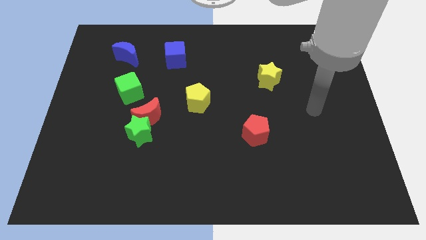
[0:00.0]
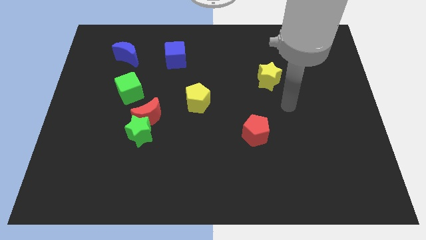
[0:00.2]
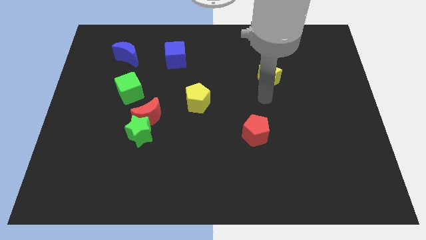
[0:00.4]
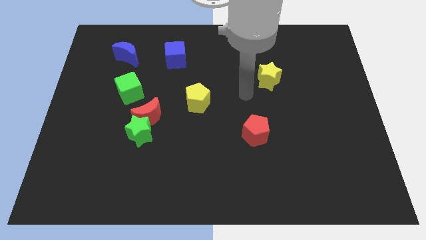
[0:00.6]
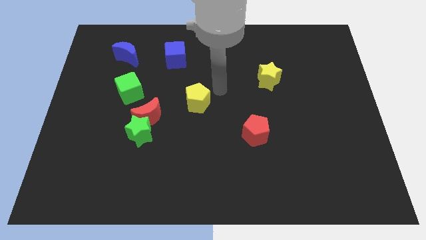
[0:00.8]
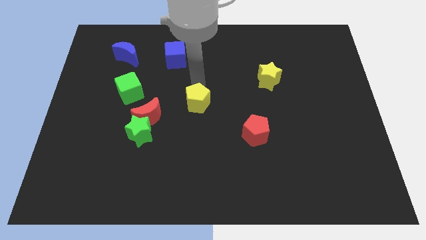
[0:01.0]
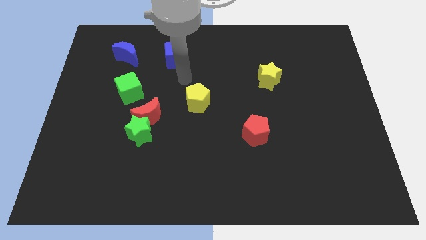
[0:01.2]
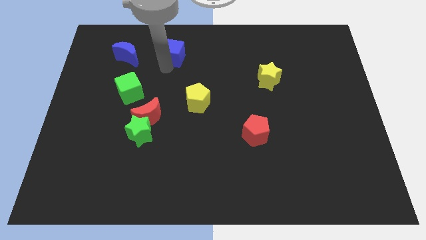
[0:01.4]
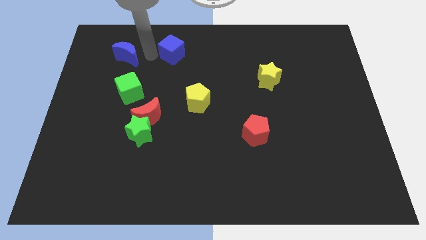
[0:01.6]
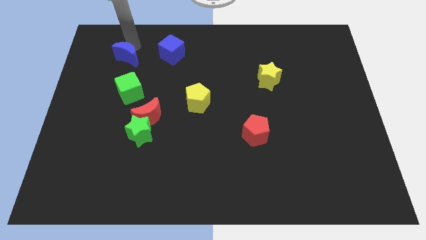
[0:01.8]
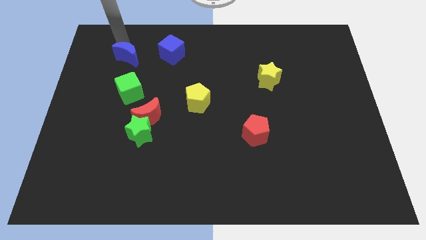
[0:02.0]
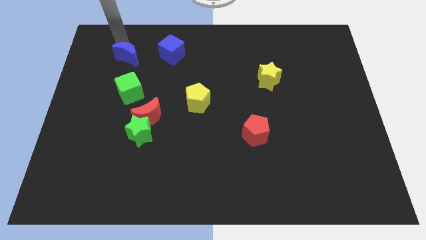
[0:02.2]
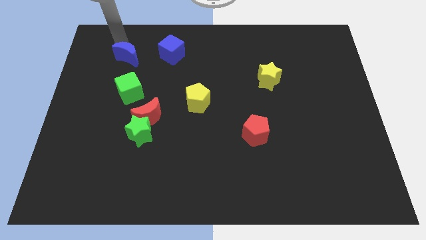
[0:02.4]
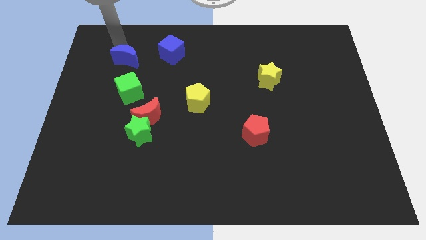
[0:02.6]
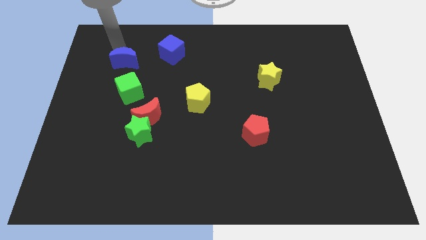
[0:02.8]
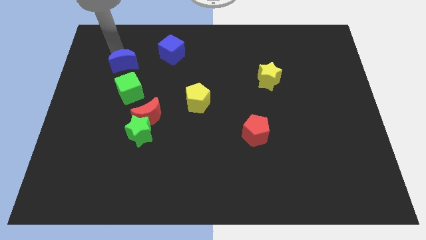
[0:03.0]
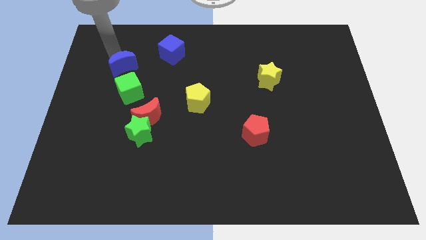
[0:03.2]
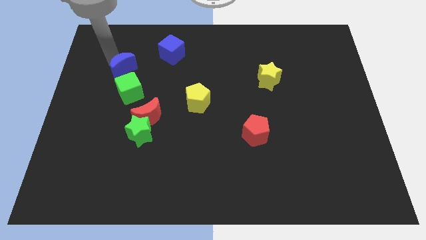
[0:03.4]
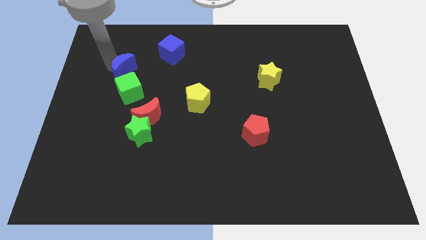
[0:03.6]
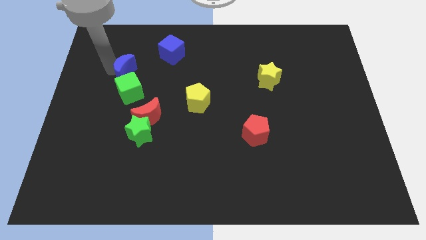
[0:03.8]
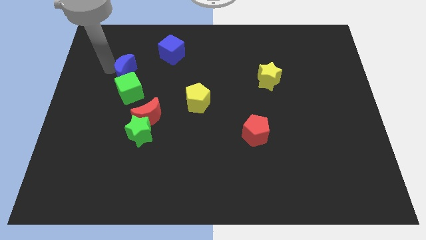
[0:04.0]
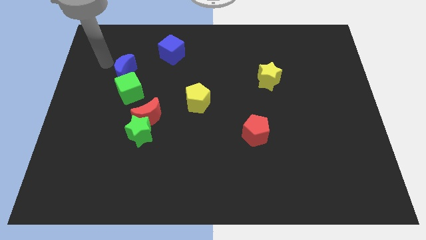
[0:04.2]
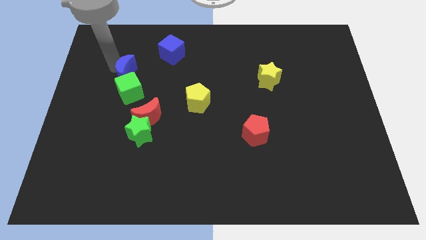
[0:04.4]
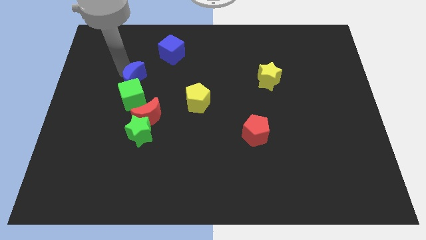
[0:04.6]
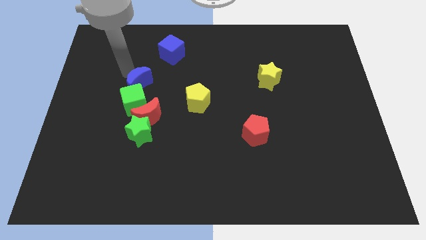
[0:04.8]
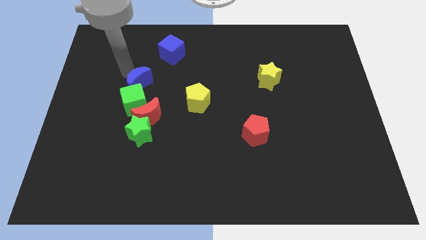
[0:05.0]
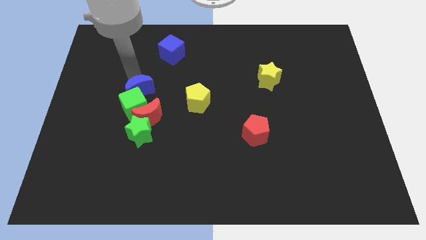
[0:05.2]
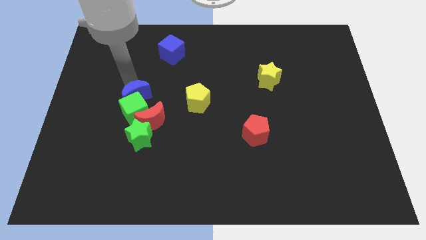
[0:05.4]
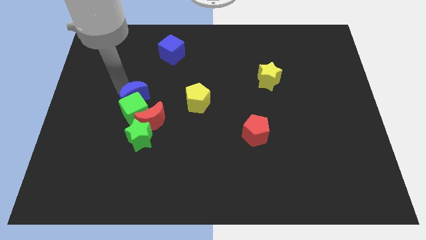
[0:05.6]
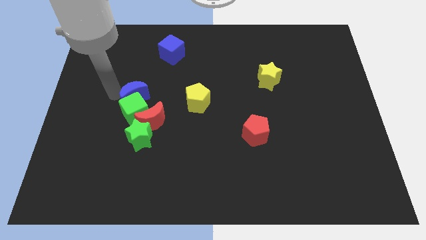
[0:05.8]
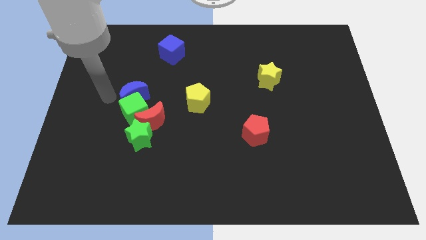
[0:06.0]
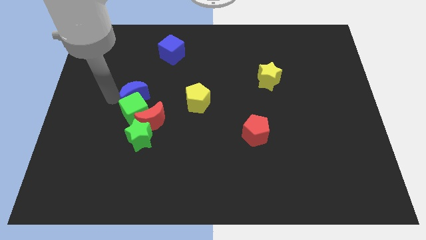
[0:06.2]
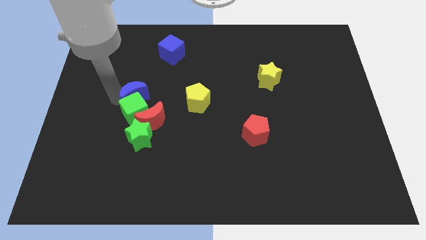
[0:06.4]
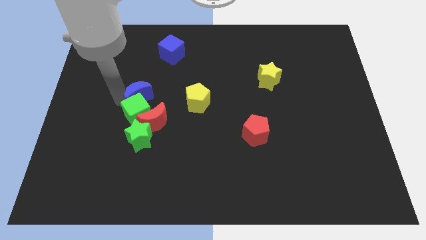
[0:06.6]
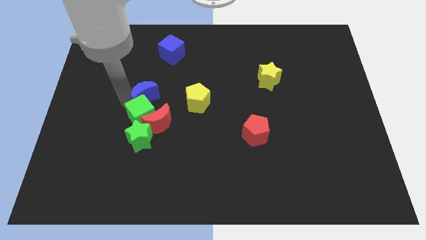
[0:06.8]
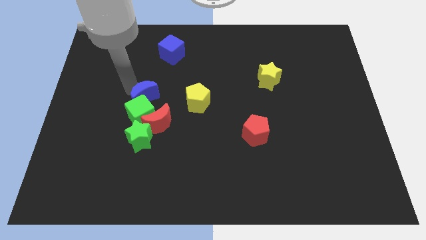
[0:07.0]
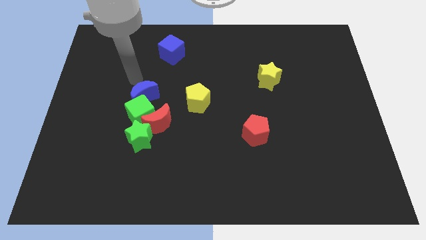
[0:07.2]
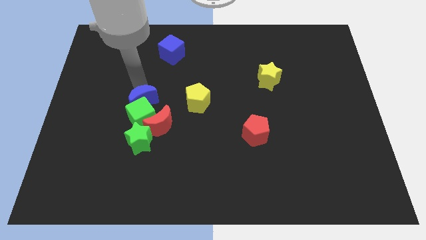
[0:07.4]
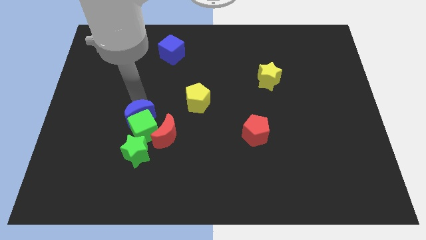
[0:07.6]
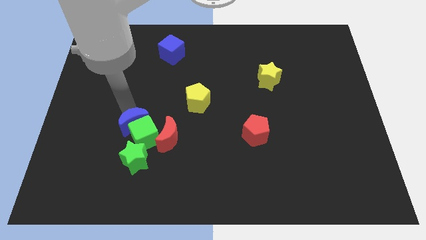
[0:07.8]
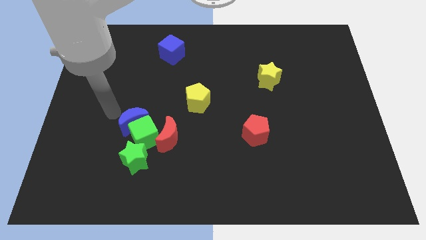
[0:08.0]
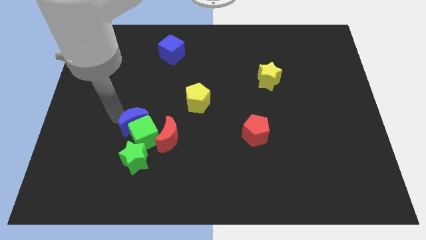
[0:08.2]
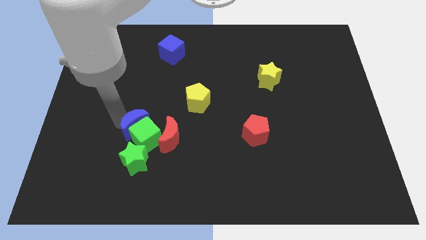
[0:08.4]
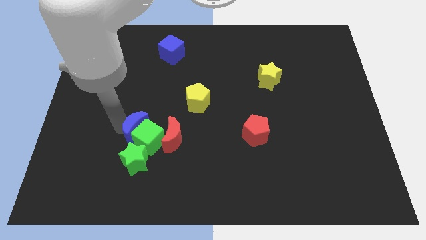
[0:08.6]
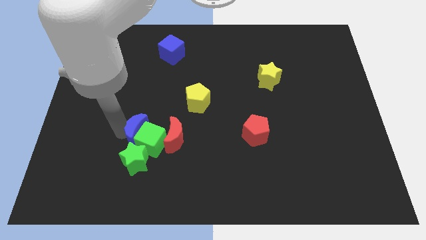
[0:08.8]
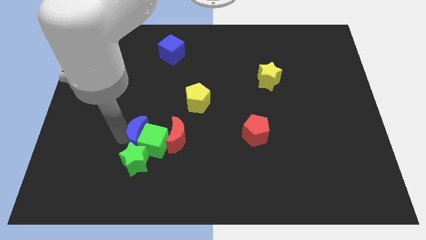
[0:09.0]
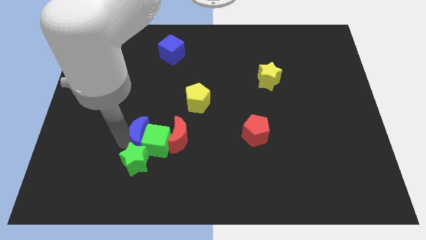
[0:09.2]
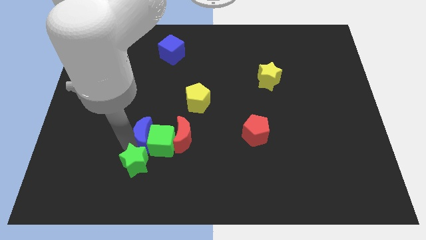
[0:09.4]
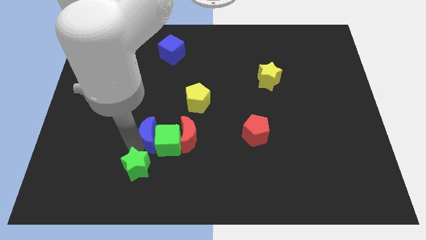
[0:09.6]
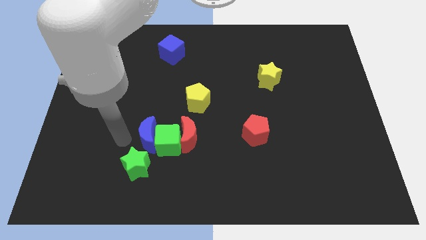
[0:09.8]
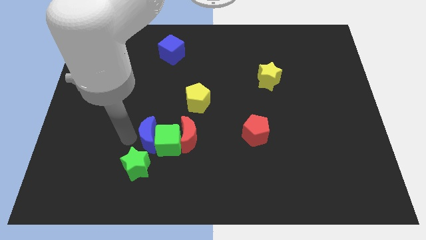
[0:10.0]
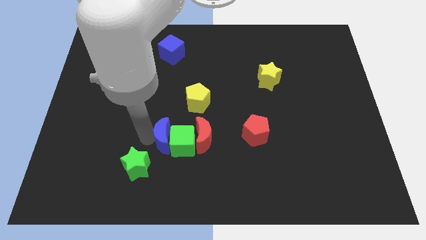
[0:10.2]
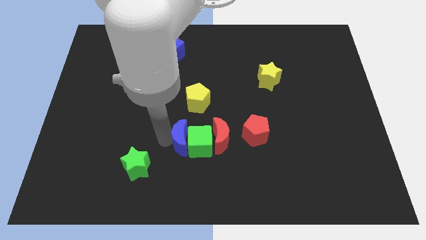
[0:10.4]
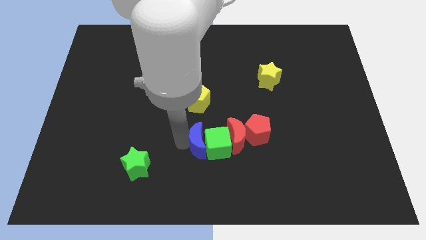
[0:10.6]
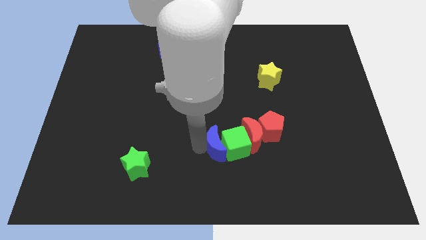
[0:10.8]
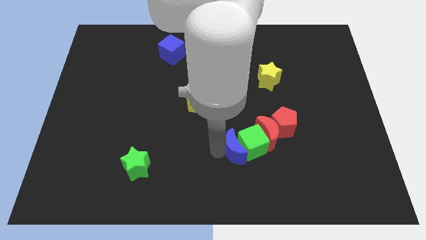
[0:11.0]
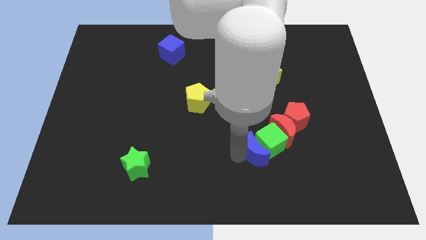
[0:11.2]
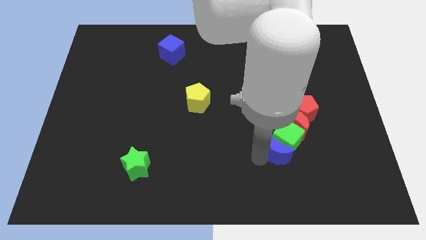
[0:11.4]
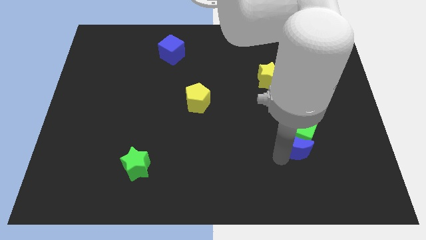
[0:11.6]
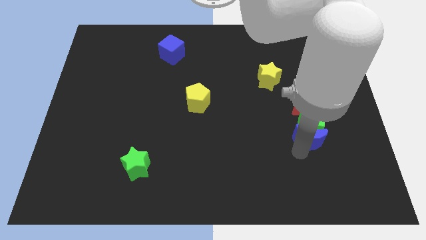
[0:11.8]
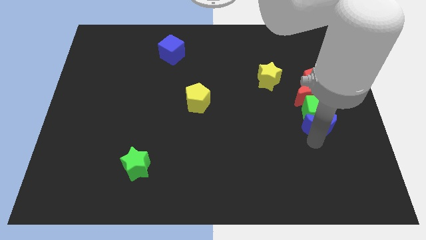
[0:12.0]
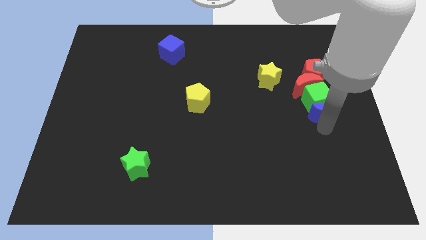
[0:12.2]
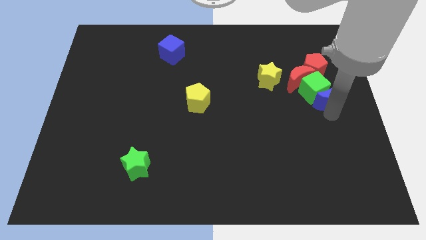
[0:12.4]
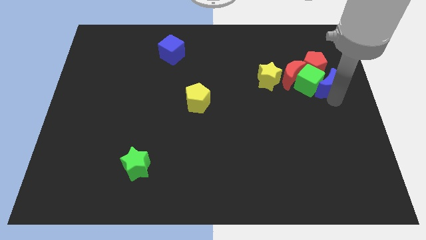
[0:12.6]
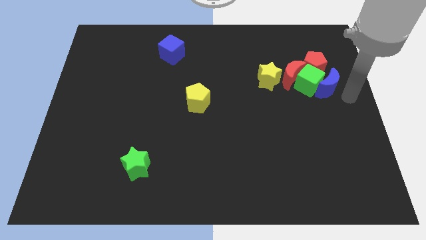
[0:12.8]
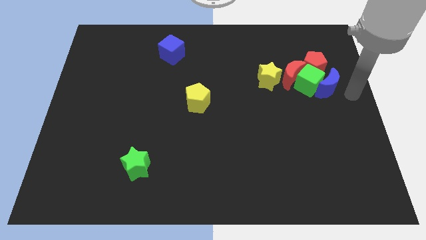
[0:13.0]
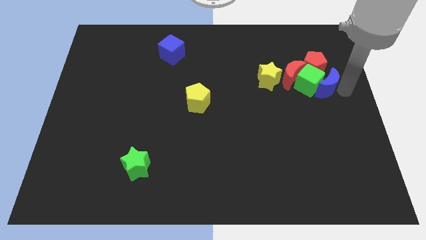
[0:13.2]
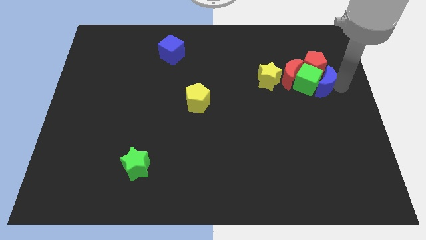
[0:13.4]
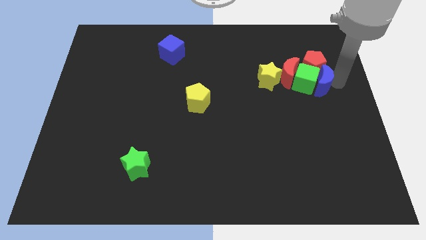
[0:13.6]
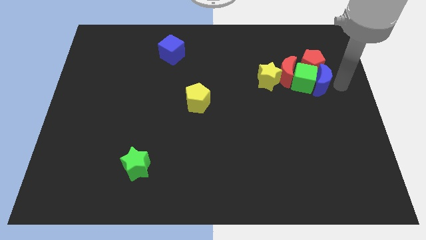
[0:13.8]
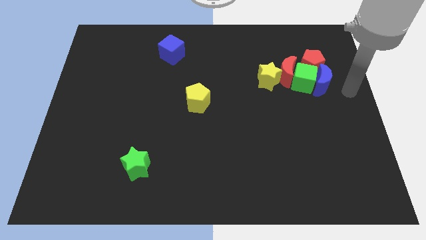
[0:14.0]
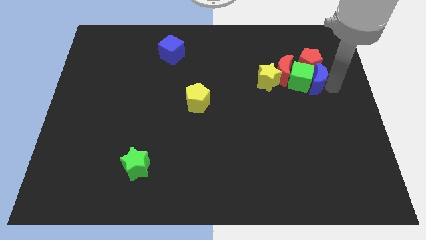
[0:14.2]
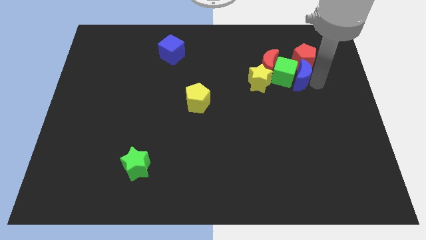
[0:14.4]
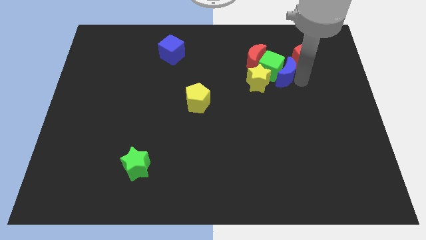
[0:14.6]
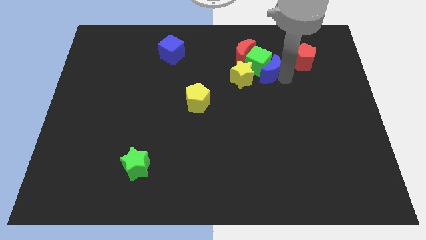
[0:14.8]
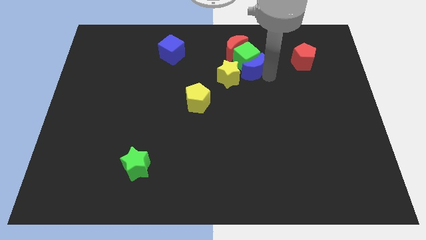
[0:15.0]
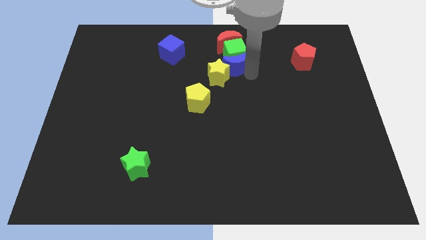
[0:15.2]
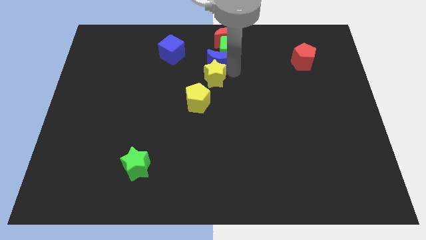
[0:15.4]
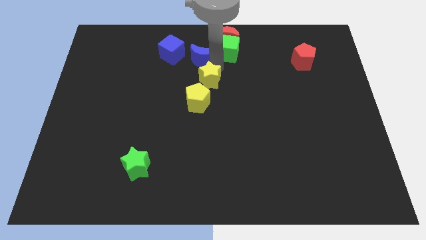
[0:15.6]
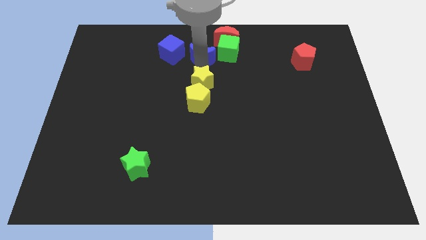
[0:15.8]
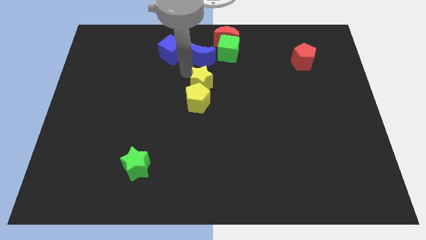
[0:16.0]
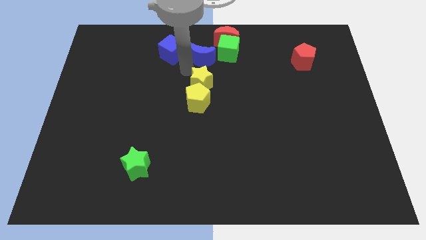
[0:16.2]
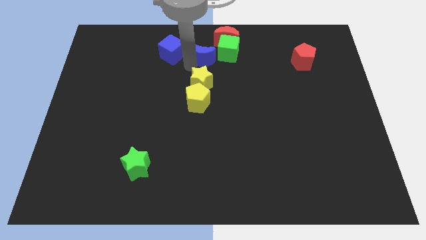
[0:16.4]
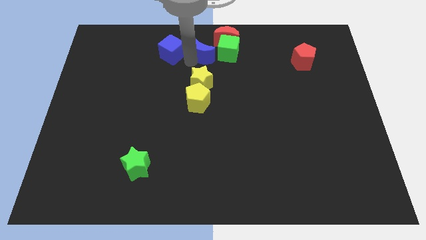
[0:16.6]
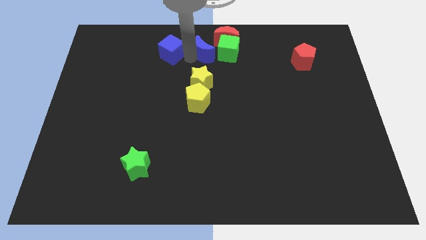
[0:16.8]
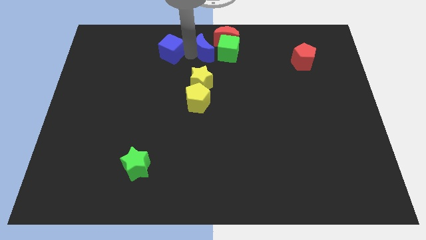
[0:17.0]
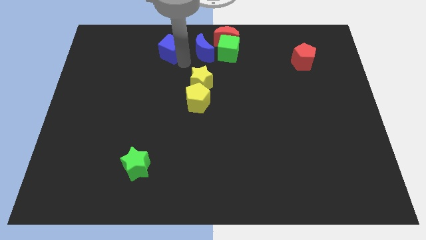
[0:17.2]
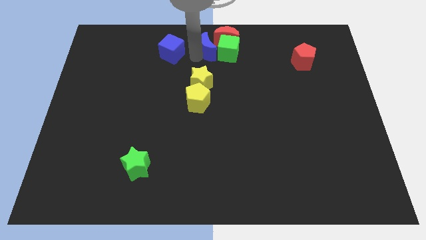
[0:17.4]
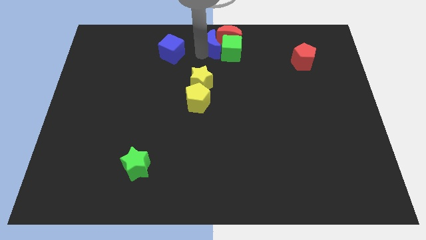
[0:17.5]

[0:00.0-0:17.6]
slide the blue moon to the red moon
